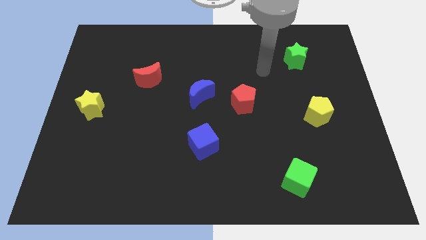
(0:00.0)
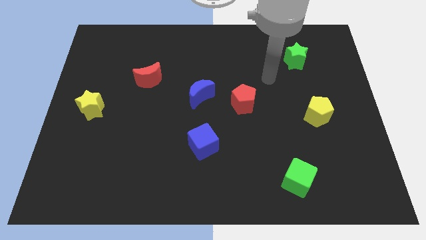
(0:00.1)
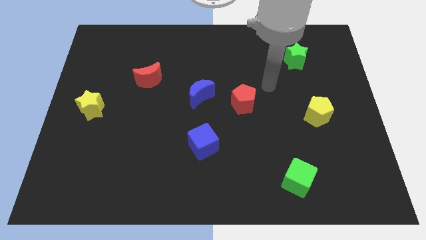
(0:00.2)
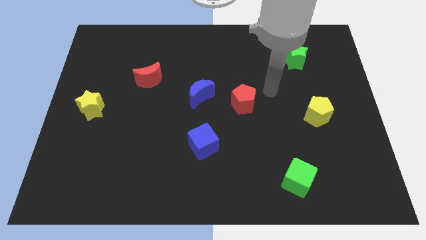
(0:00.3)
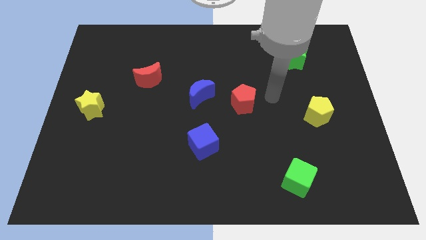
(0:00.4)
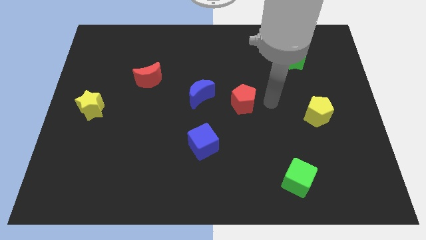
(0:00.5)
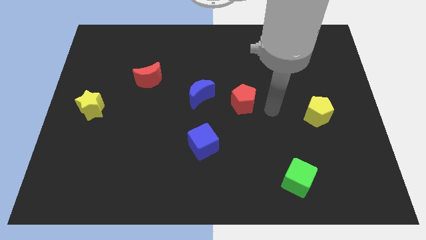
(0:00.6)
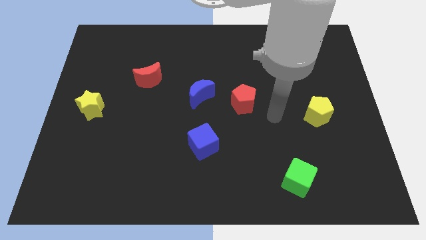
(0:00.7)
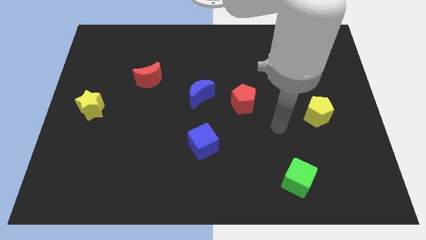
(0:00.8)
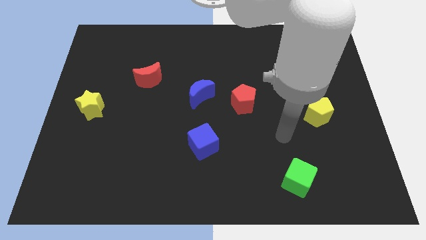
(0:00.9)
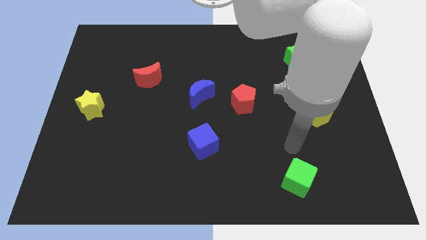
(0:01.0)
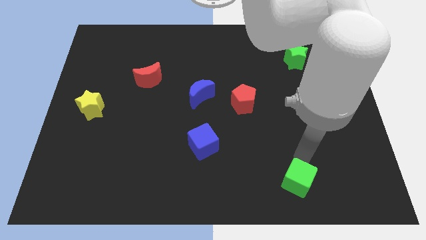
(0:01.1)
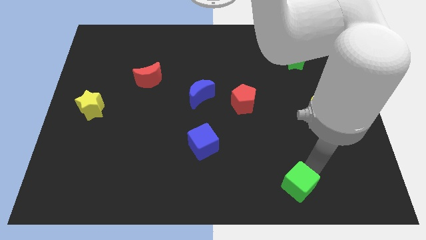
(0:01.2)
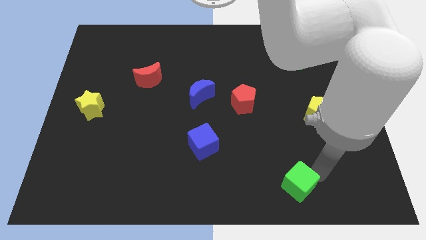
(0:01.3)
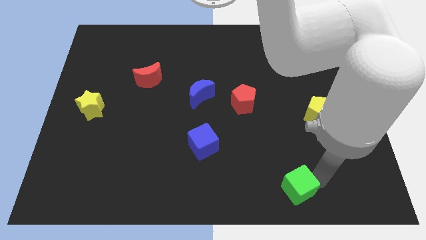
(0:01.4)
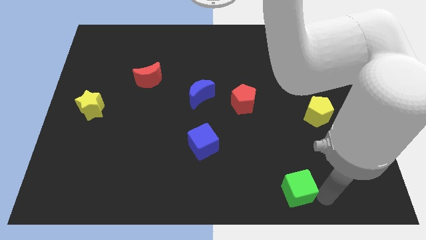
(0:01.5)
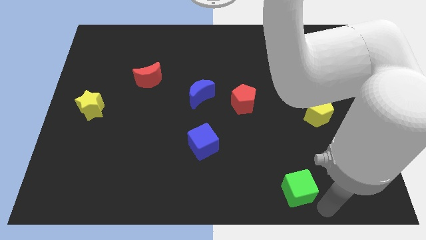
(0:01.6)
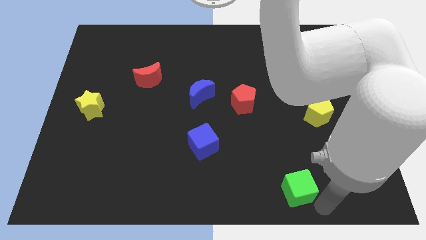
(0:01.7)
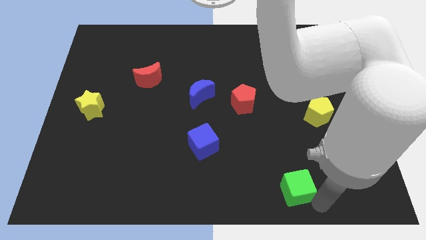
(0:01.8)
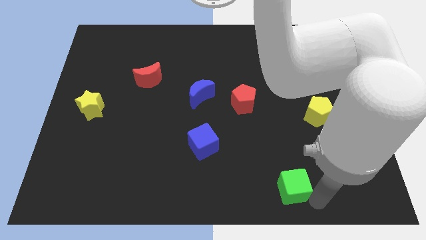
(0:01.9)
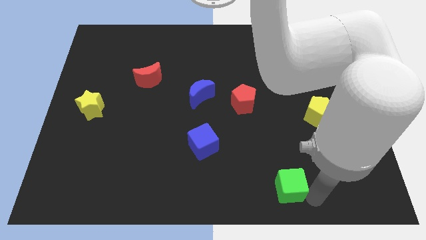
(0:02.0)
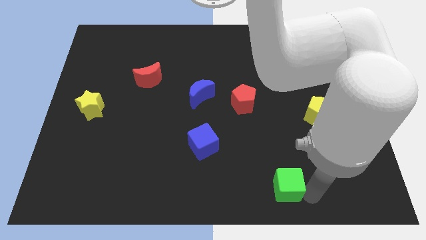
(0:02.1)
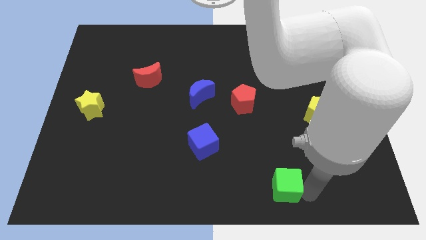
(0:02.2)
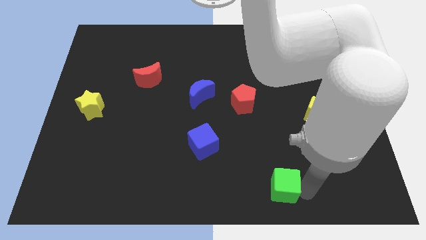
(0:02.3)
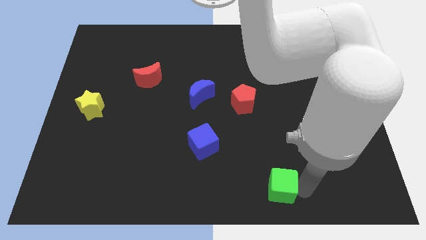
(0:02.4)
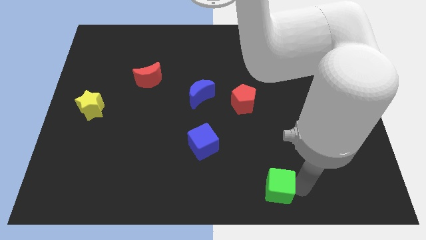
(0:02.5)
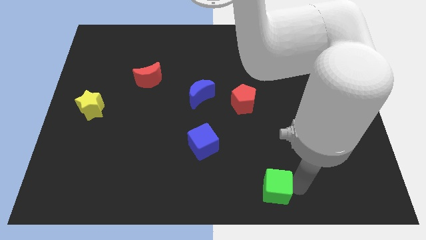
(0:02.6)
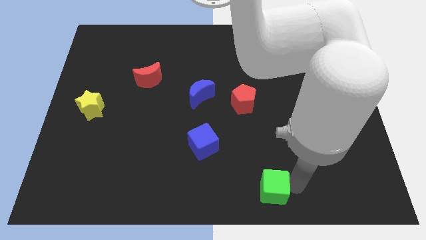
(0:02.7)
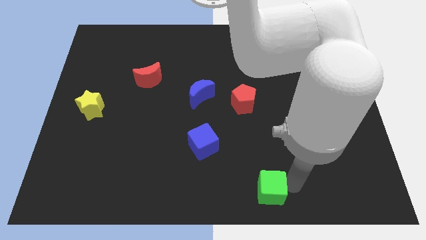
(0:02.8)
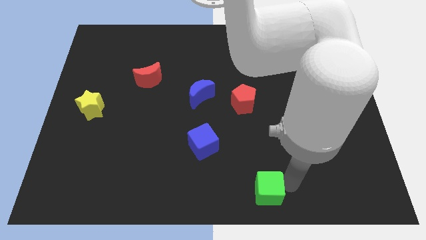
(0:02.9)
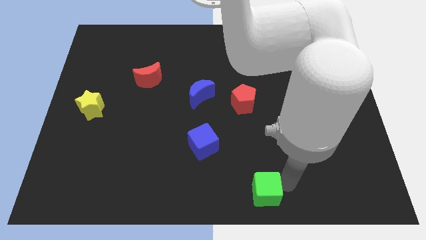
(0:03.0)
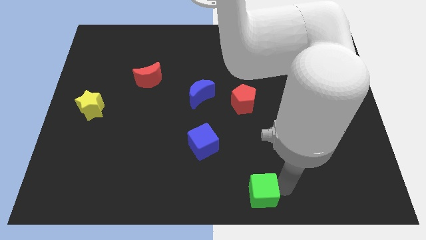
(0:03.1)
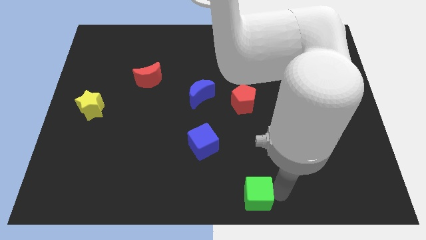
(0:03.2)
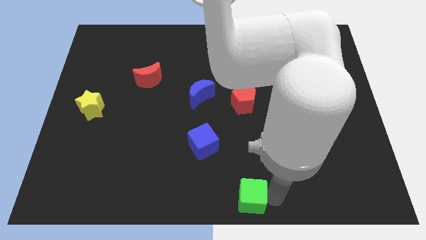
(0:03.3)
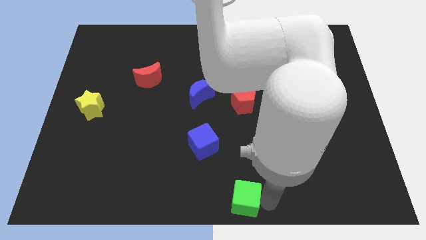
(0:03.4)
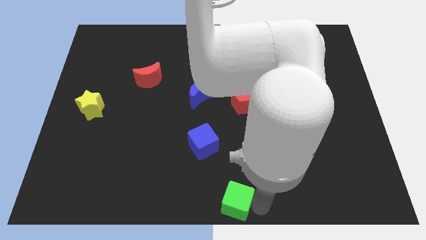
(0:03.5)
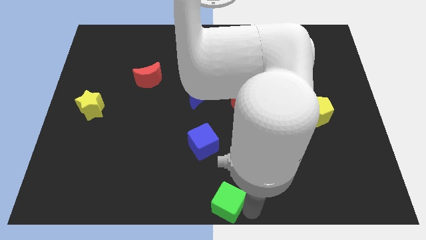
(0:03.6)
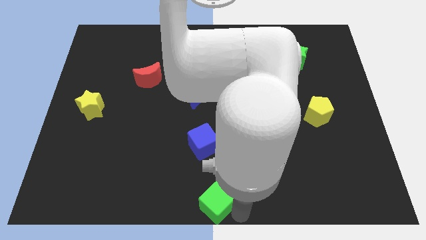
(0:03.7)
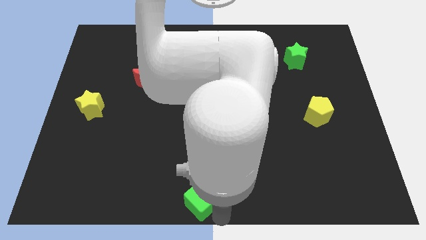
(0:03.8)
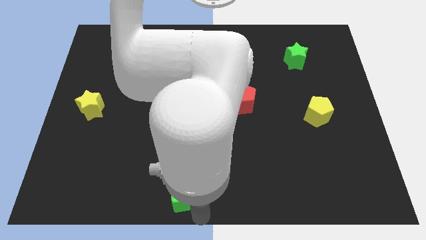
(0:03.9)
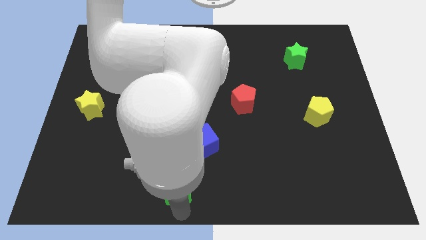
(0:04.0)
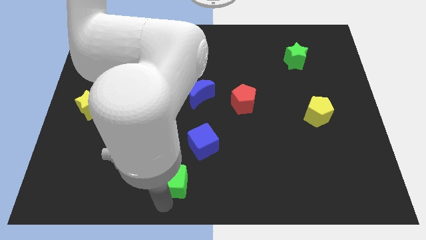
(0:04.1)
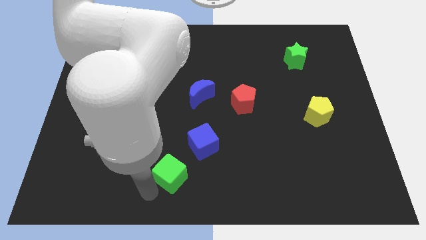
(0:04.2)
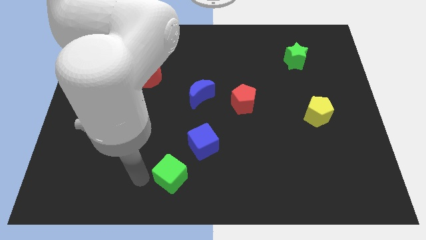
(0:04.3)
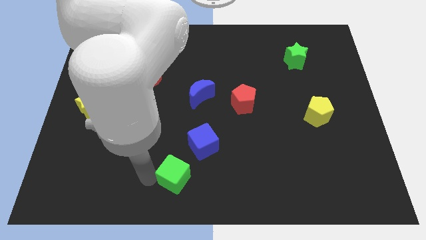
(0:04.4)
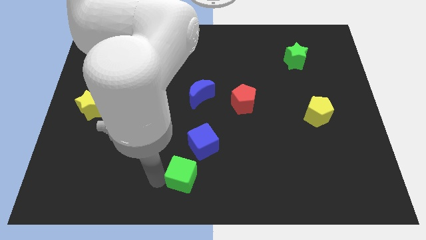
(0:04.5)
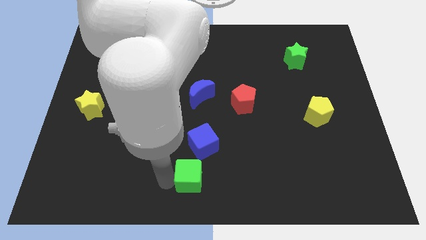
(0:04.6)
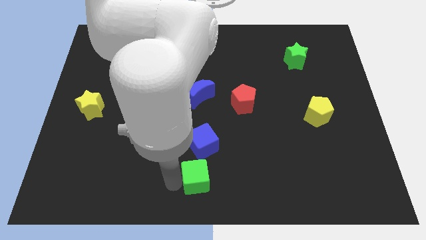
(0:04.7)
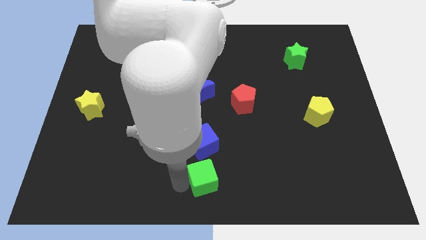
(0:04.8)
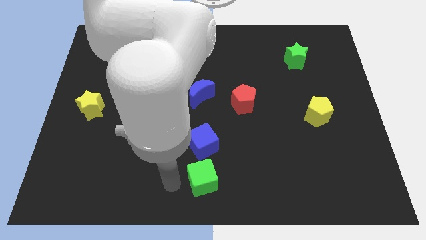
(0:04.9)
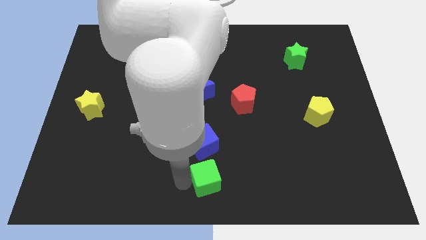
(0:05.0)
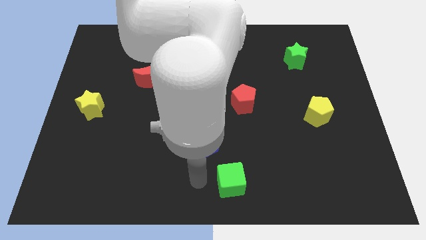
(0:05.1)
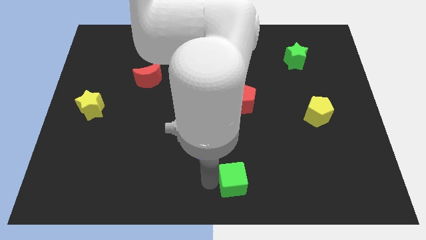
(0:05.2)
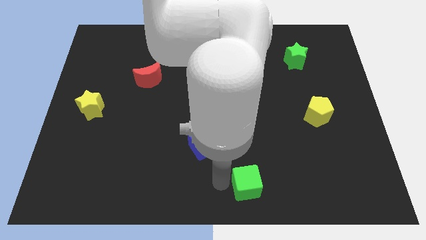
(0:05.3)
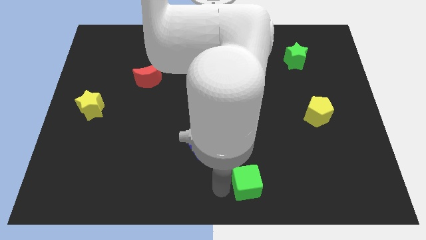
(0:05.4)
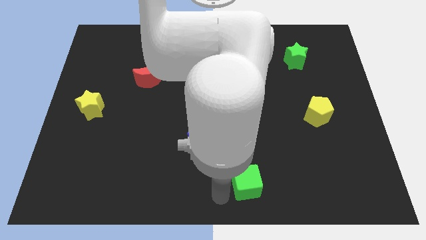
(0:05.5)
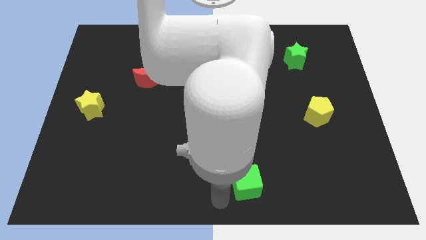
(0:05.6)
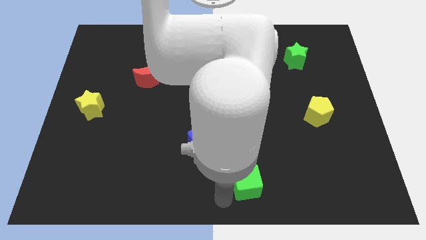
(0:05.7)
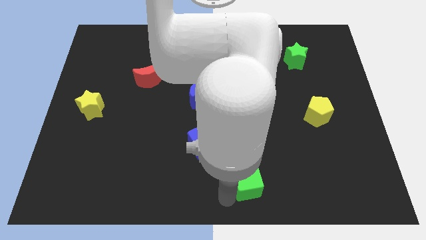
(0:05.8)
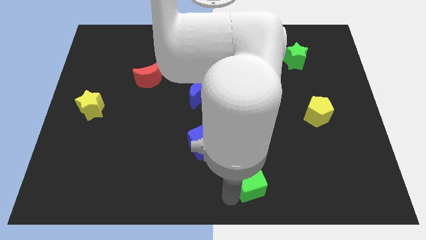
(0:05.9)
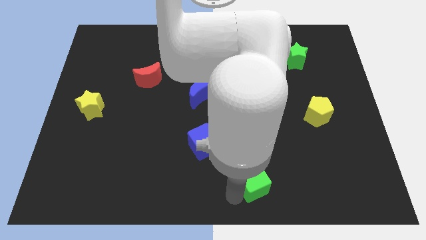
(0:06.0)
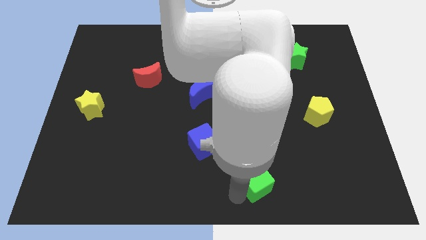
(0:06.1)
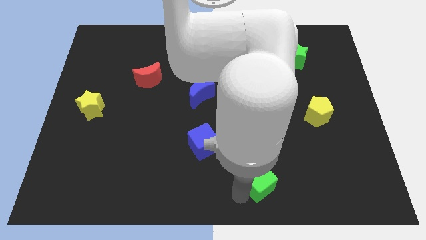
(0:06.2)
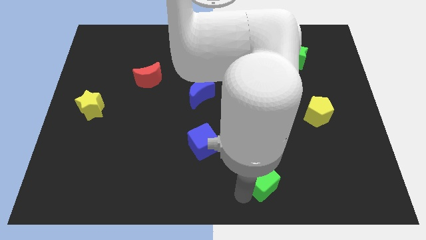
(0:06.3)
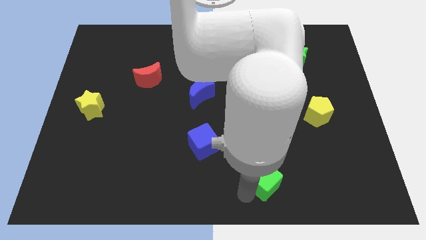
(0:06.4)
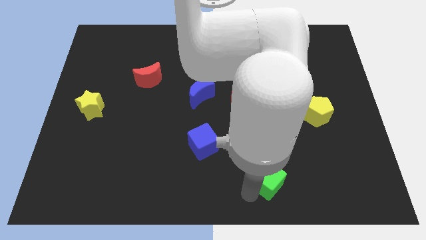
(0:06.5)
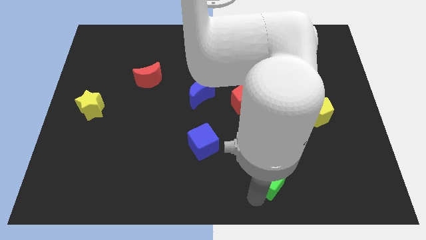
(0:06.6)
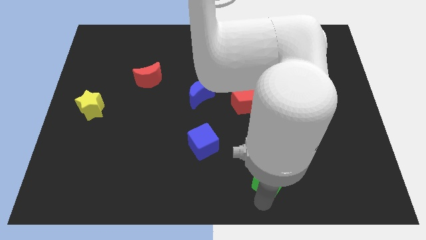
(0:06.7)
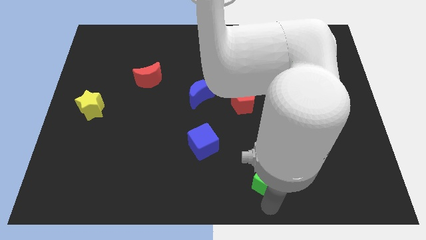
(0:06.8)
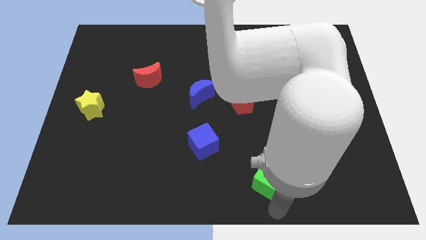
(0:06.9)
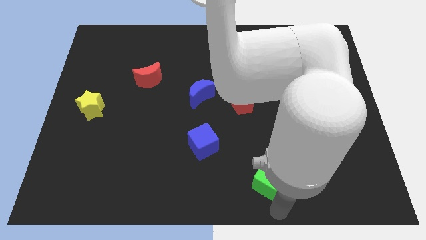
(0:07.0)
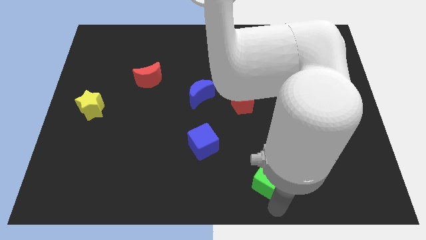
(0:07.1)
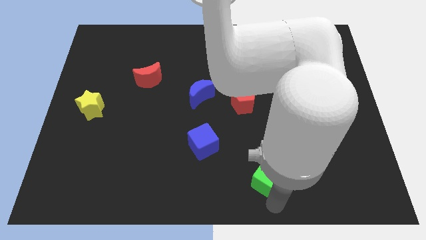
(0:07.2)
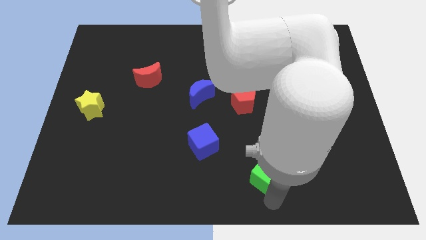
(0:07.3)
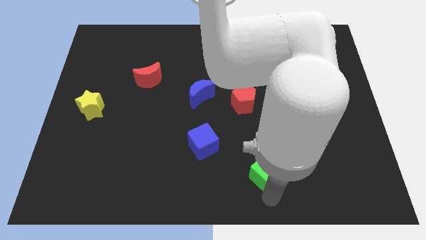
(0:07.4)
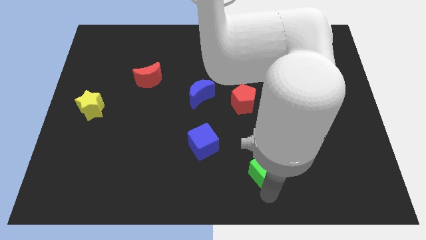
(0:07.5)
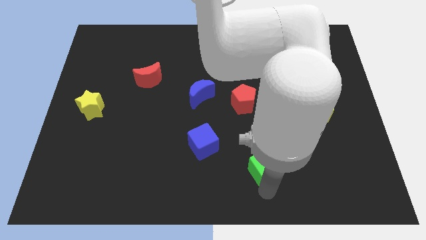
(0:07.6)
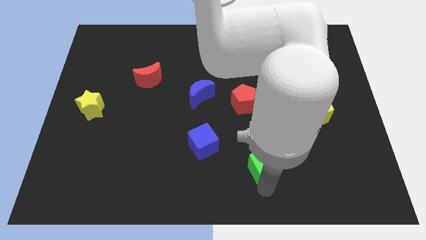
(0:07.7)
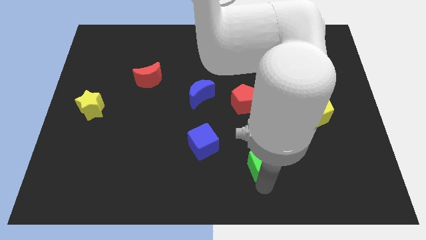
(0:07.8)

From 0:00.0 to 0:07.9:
slide the green cube upwards and to the left diagonally a little bit

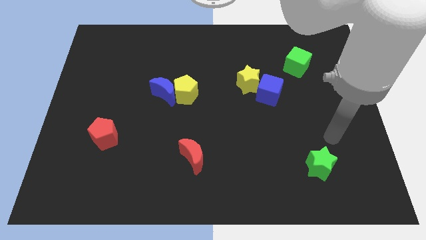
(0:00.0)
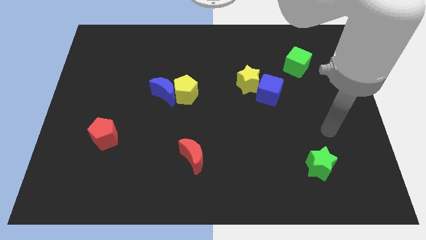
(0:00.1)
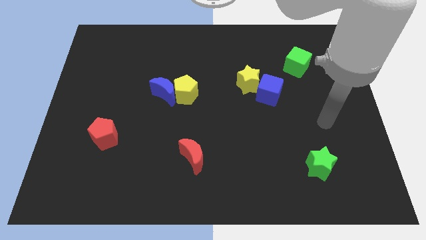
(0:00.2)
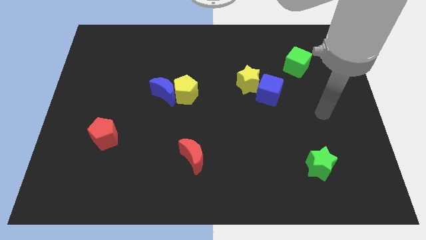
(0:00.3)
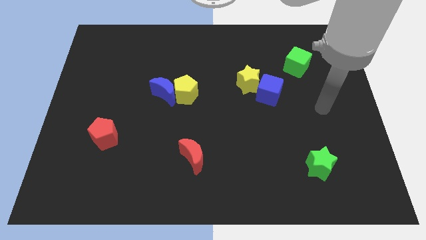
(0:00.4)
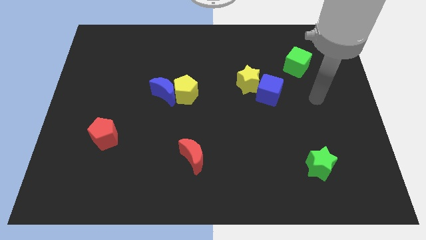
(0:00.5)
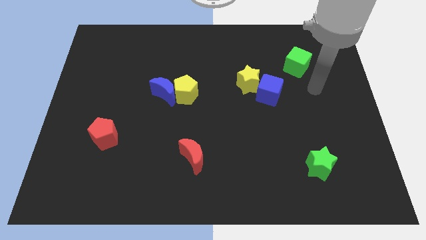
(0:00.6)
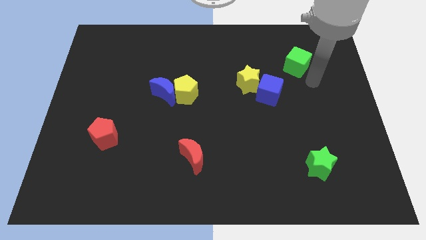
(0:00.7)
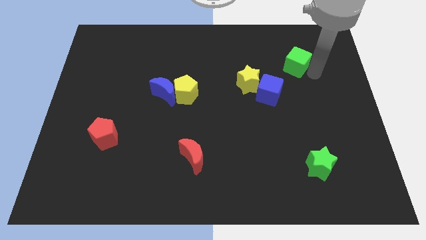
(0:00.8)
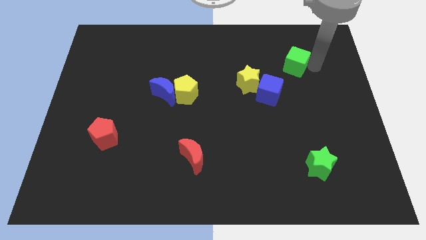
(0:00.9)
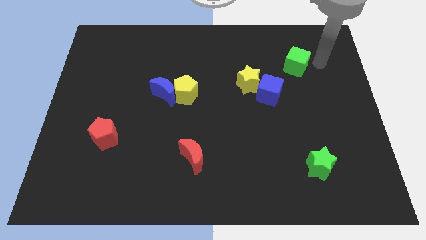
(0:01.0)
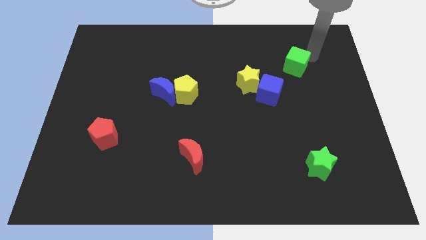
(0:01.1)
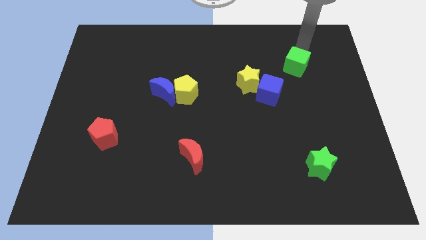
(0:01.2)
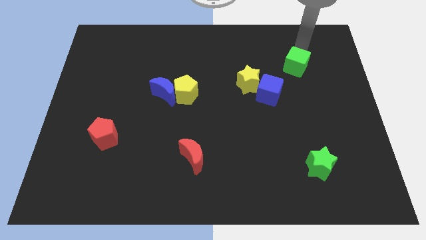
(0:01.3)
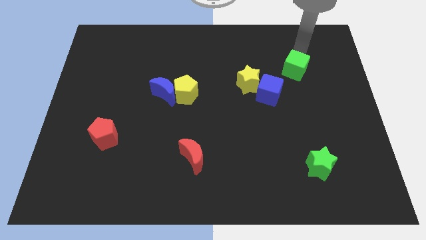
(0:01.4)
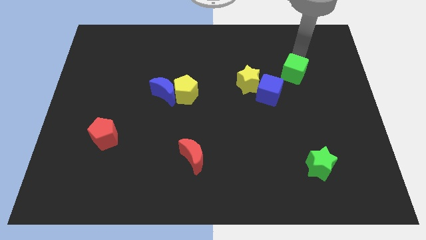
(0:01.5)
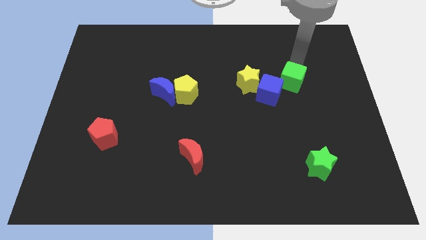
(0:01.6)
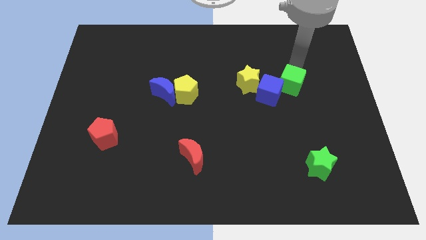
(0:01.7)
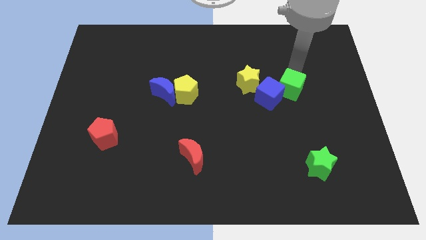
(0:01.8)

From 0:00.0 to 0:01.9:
slightly push the green cube down and to the left
